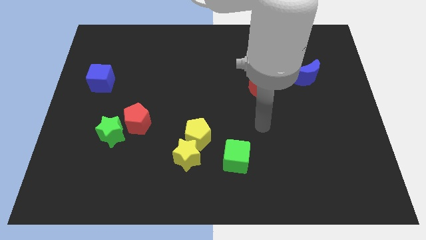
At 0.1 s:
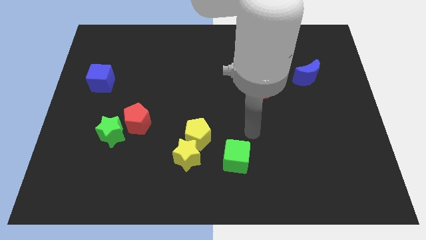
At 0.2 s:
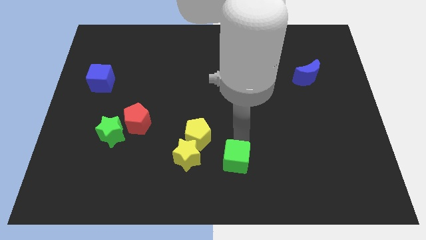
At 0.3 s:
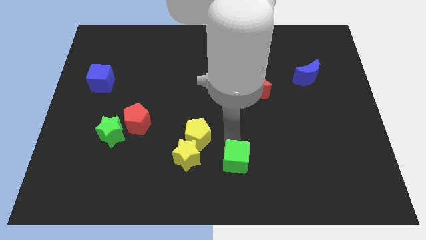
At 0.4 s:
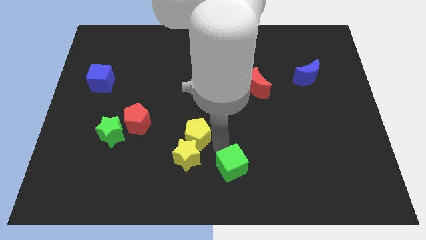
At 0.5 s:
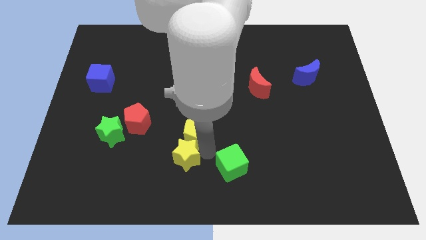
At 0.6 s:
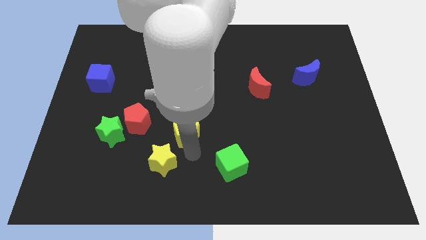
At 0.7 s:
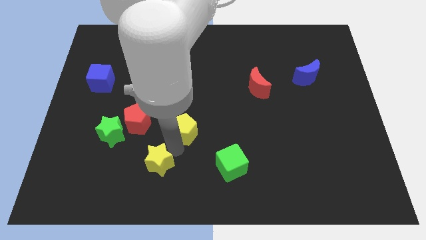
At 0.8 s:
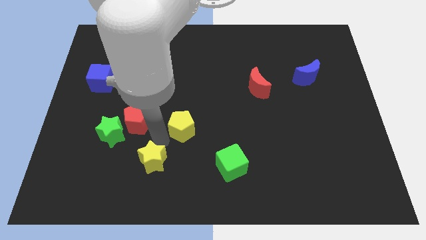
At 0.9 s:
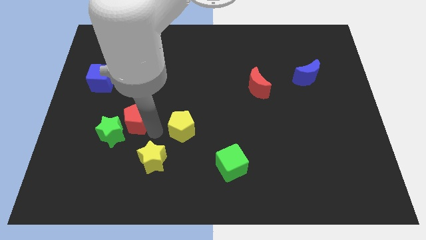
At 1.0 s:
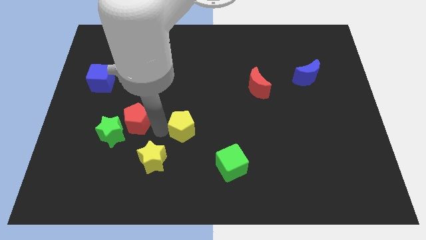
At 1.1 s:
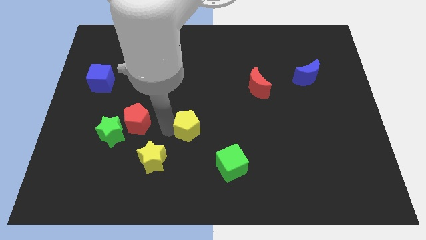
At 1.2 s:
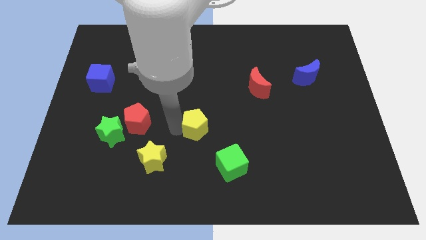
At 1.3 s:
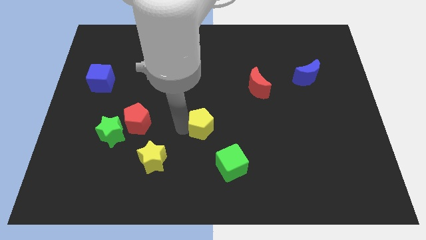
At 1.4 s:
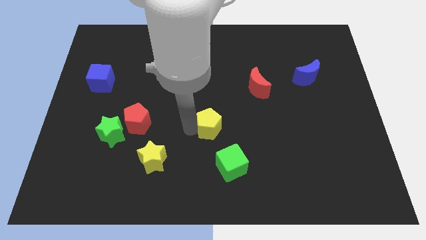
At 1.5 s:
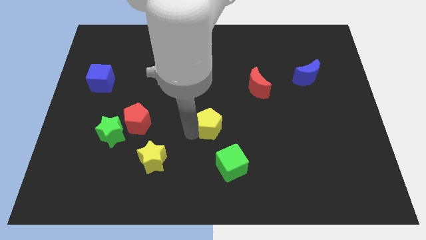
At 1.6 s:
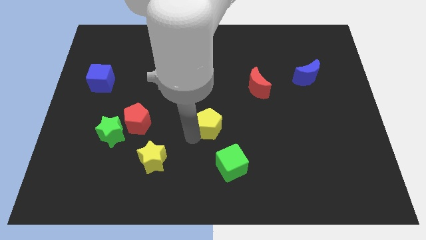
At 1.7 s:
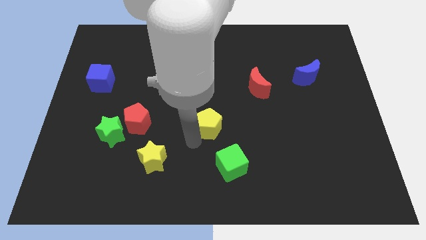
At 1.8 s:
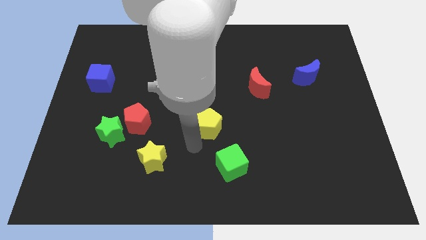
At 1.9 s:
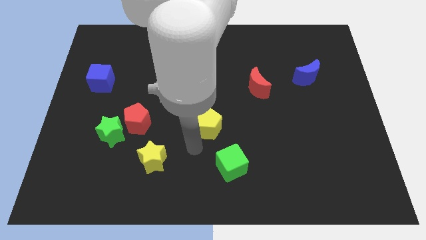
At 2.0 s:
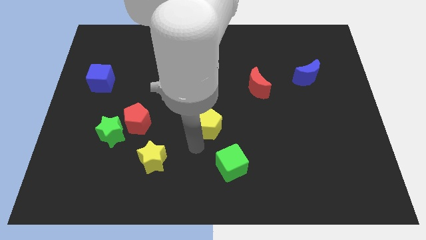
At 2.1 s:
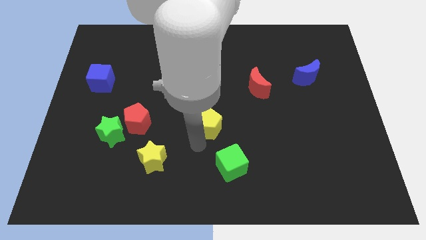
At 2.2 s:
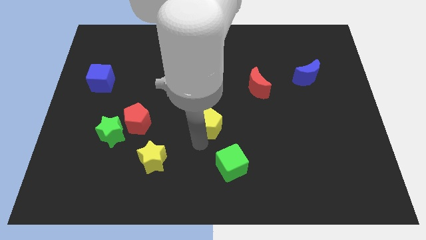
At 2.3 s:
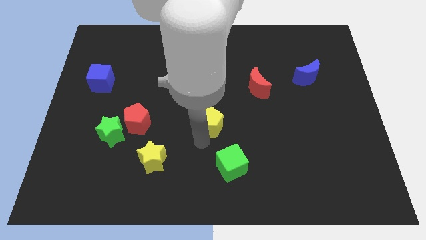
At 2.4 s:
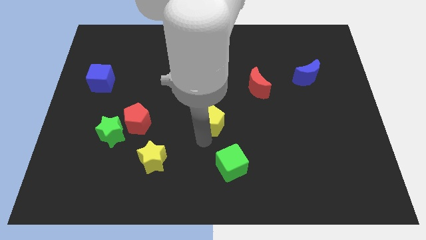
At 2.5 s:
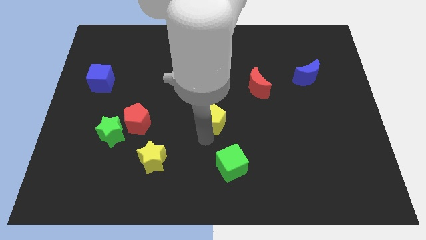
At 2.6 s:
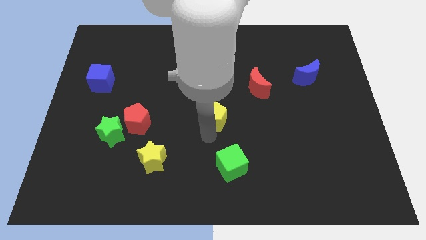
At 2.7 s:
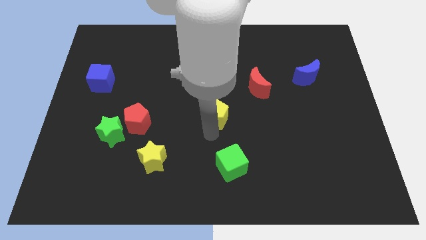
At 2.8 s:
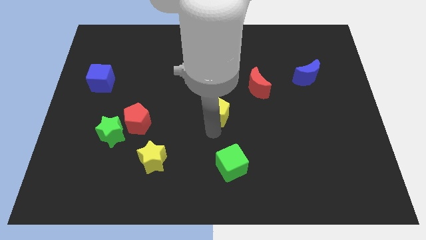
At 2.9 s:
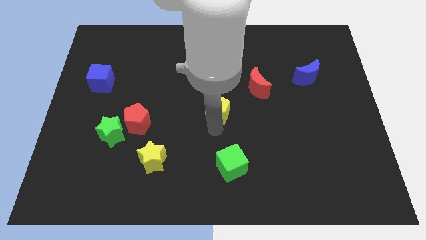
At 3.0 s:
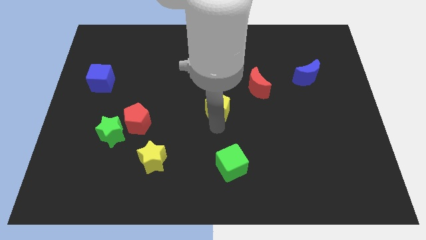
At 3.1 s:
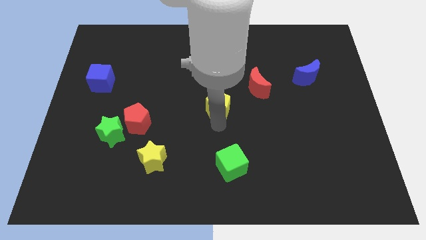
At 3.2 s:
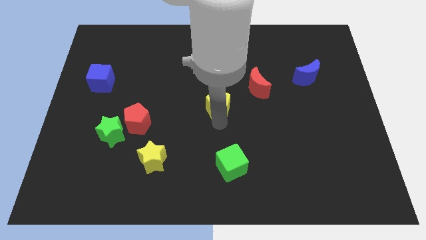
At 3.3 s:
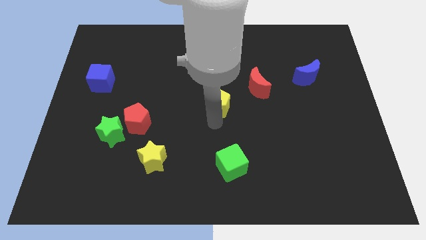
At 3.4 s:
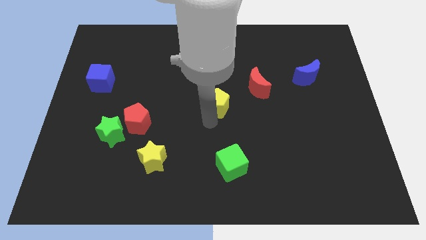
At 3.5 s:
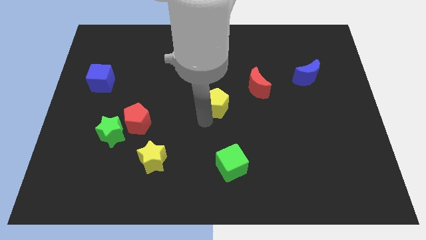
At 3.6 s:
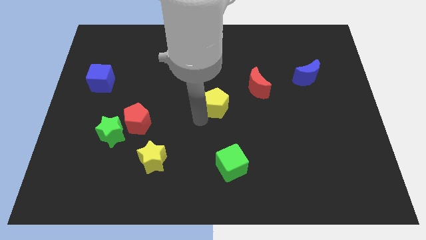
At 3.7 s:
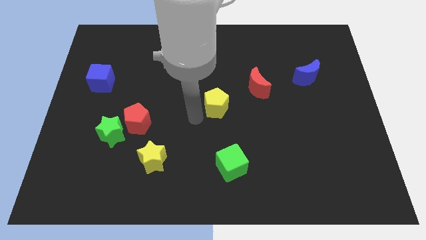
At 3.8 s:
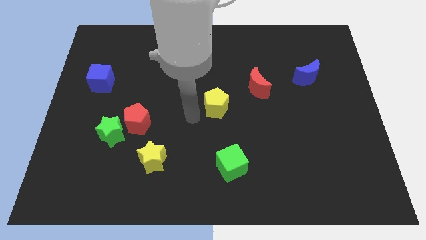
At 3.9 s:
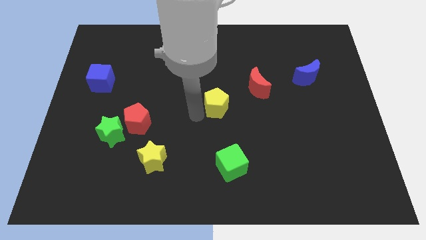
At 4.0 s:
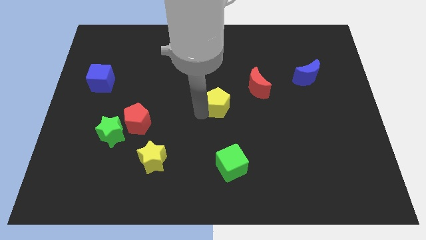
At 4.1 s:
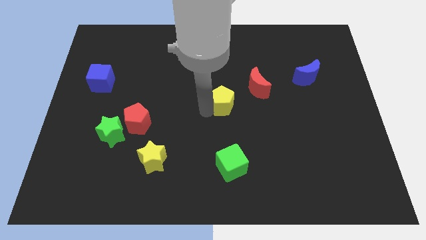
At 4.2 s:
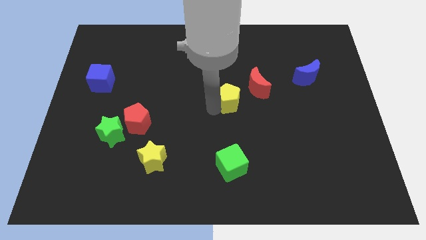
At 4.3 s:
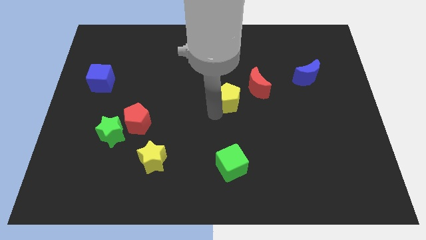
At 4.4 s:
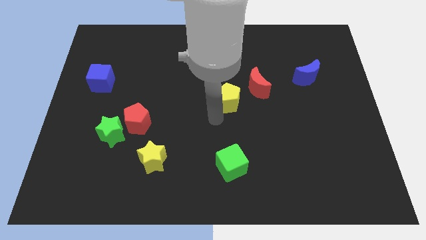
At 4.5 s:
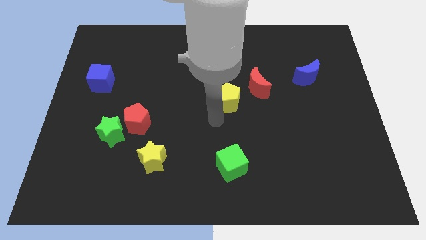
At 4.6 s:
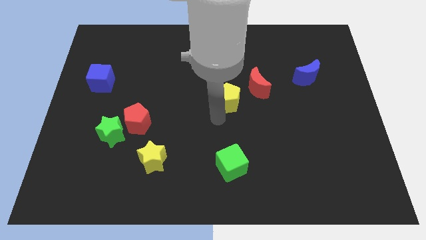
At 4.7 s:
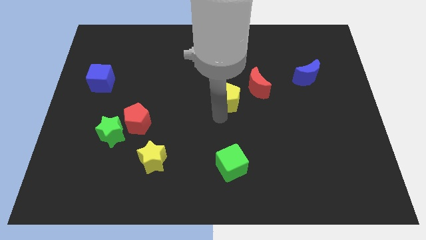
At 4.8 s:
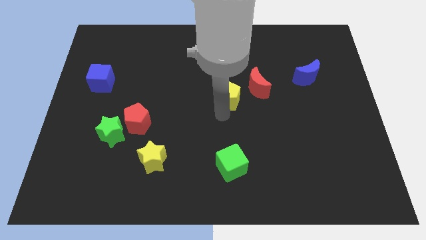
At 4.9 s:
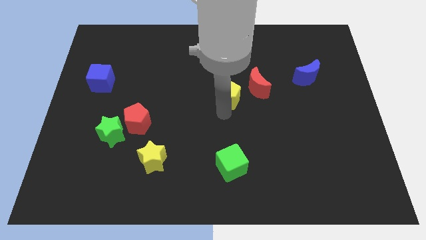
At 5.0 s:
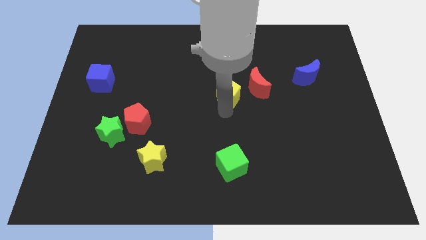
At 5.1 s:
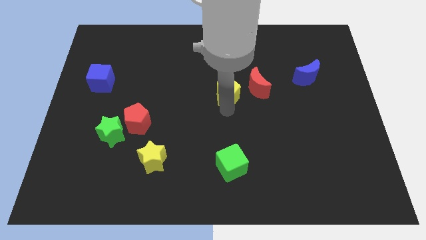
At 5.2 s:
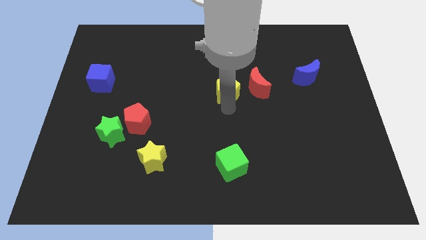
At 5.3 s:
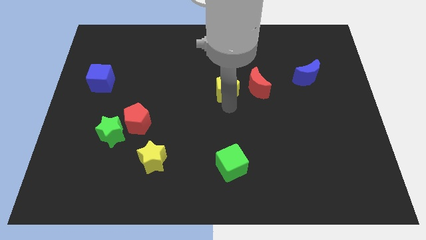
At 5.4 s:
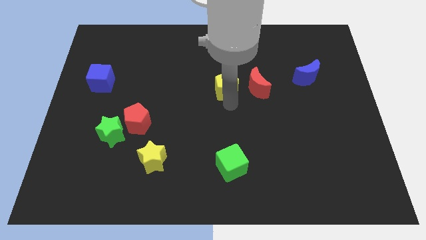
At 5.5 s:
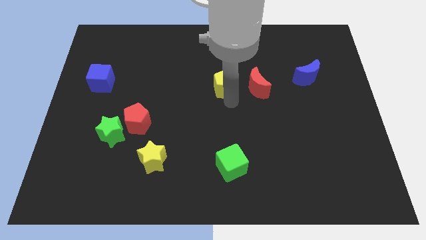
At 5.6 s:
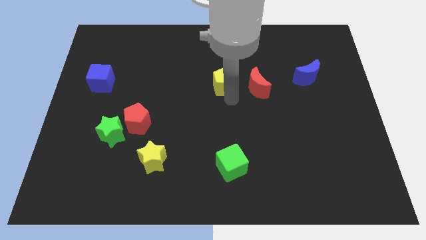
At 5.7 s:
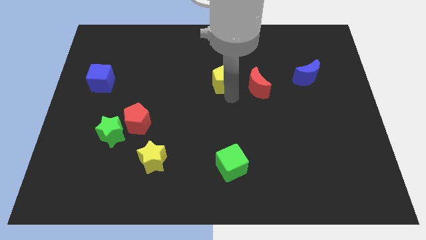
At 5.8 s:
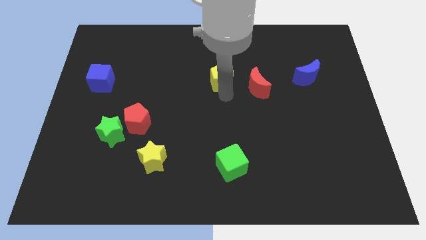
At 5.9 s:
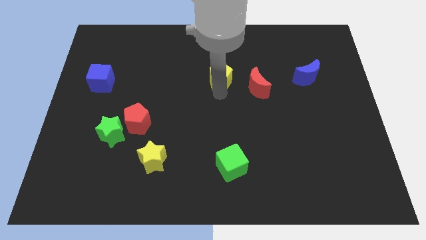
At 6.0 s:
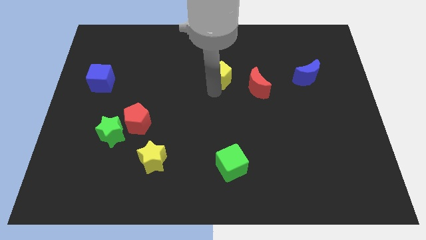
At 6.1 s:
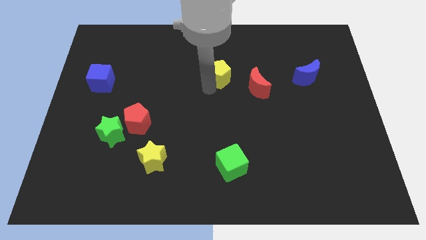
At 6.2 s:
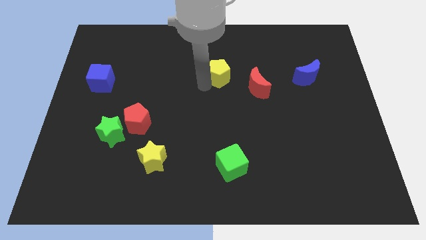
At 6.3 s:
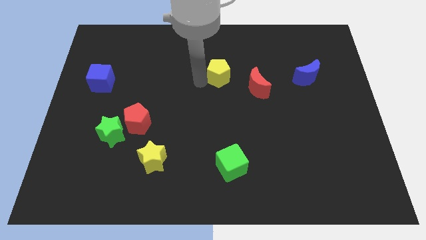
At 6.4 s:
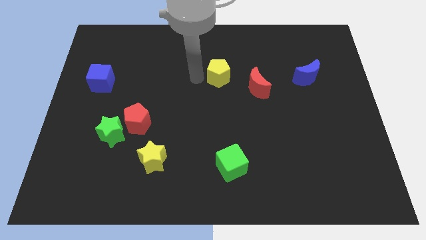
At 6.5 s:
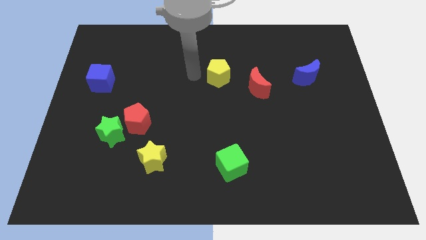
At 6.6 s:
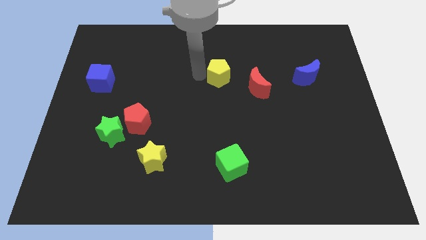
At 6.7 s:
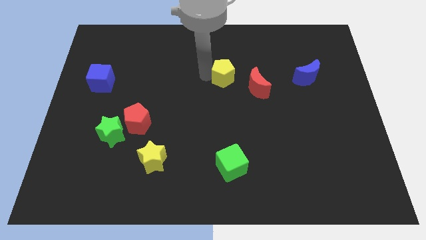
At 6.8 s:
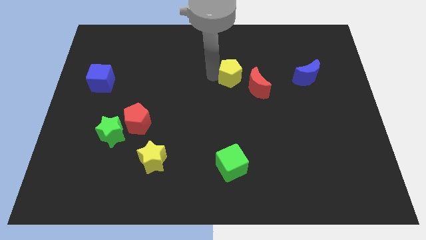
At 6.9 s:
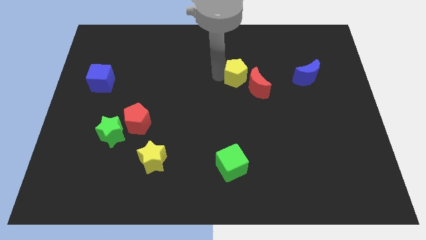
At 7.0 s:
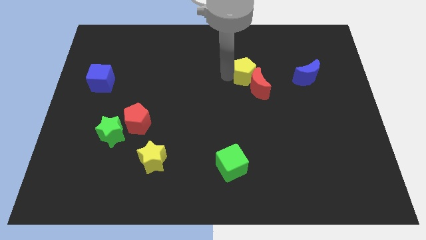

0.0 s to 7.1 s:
slide the yellow pentagon just left of the blue moon
